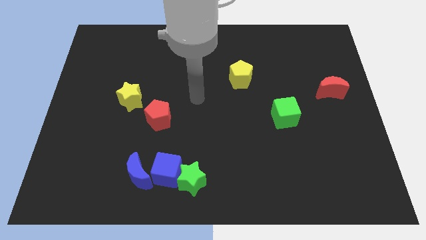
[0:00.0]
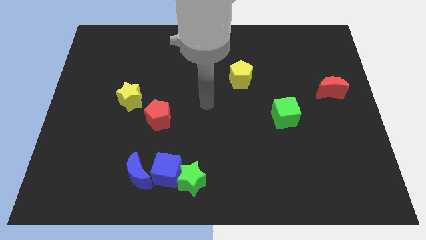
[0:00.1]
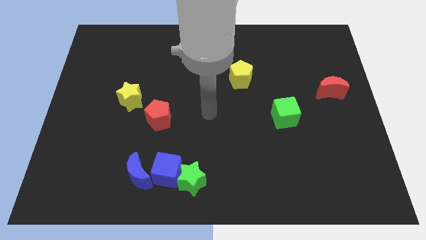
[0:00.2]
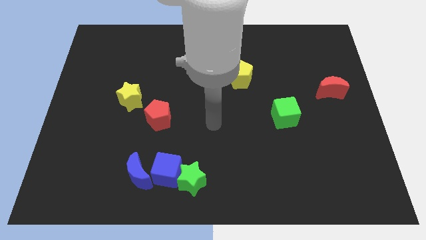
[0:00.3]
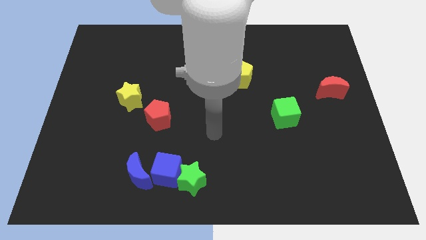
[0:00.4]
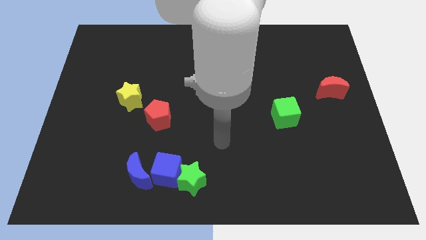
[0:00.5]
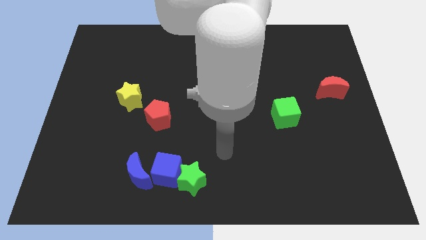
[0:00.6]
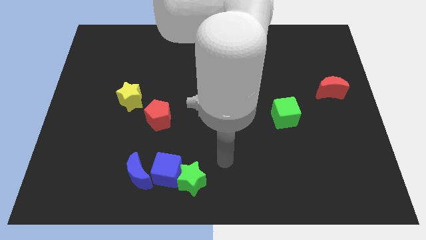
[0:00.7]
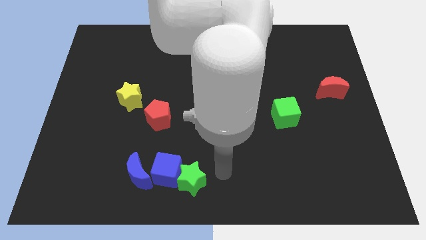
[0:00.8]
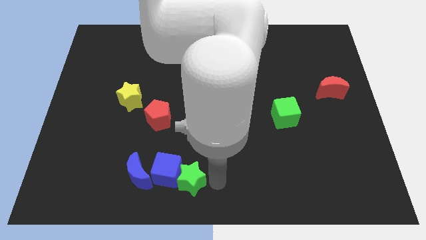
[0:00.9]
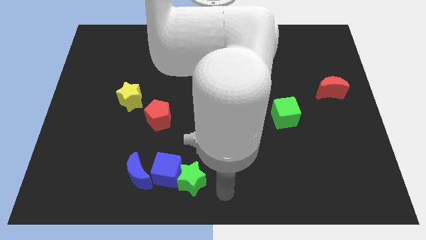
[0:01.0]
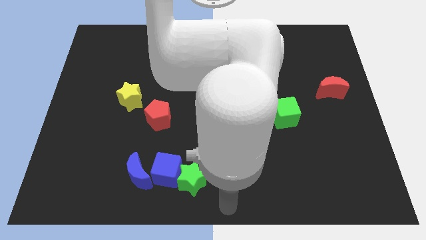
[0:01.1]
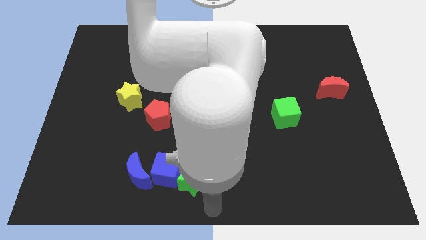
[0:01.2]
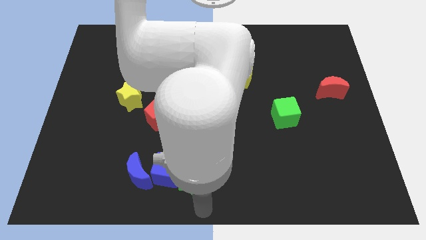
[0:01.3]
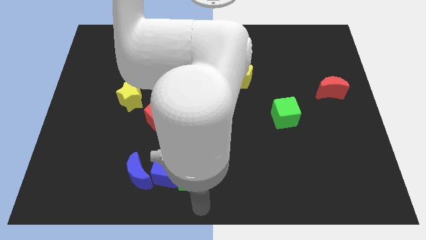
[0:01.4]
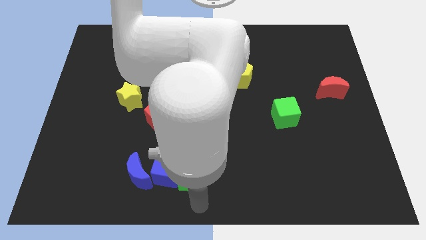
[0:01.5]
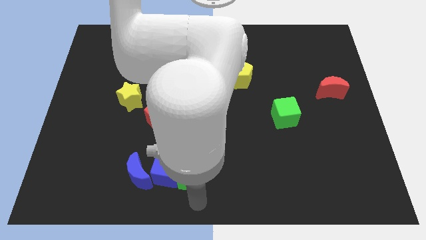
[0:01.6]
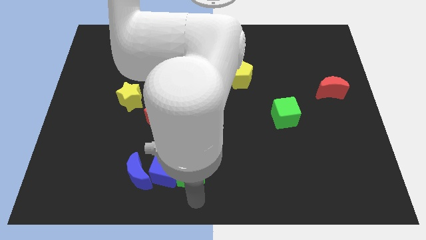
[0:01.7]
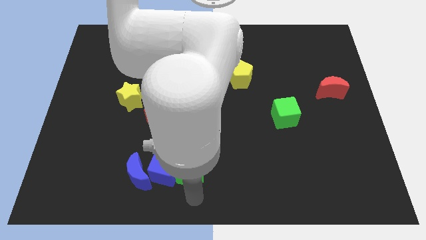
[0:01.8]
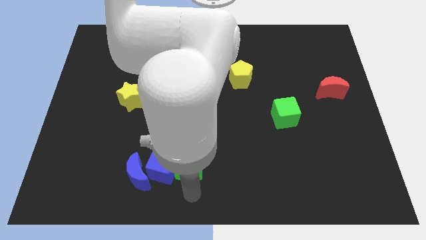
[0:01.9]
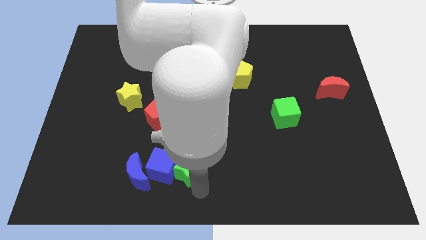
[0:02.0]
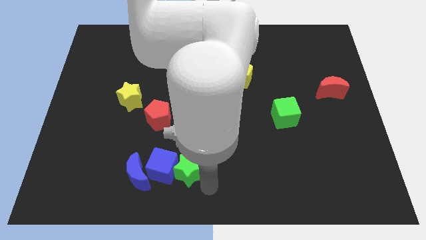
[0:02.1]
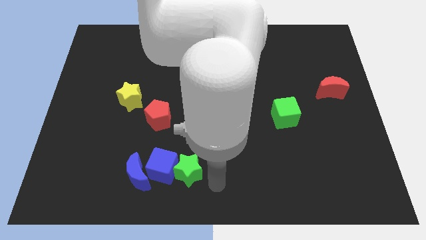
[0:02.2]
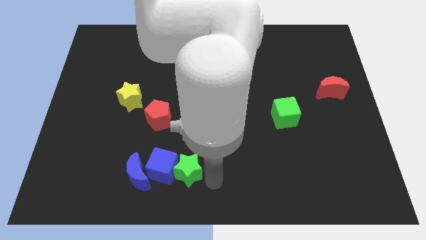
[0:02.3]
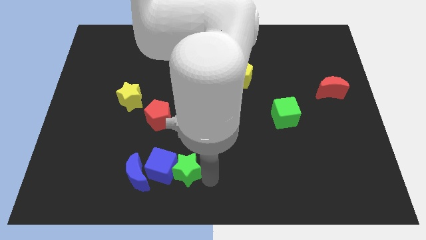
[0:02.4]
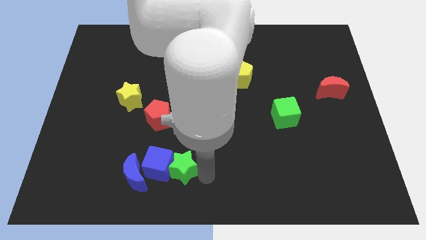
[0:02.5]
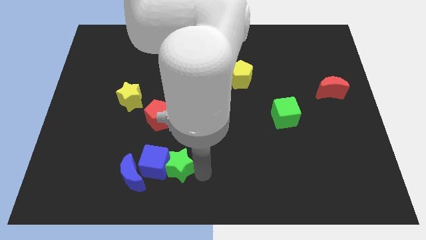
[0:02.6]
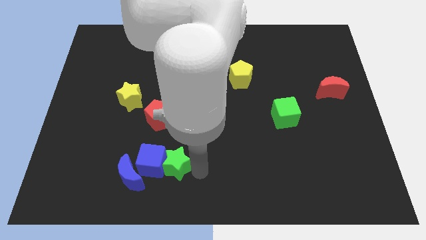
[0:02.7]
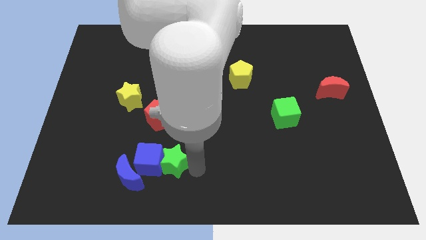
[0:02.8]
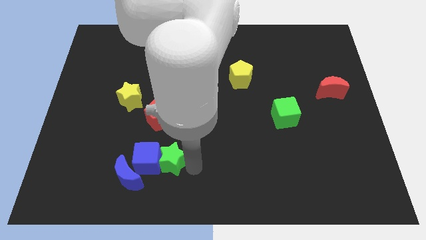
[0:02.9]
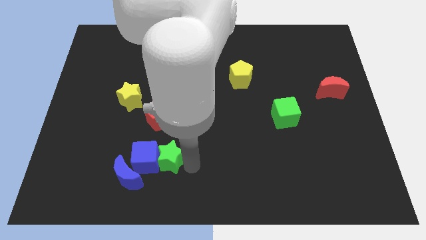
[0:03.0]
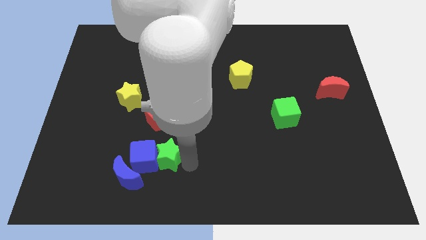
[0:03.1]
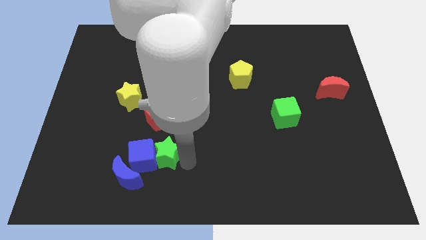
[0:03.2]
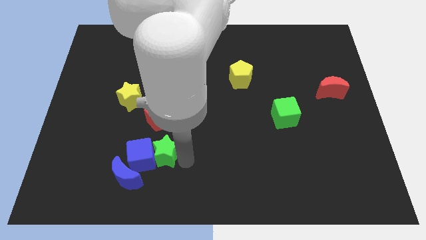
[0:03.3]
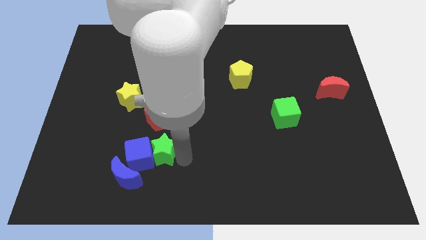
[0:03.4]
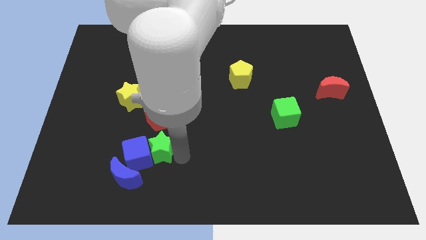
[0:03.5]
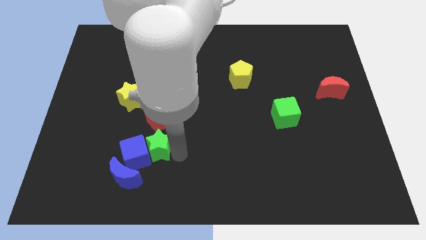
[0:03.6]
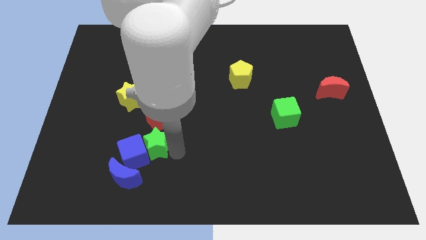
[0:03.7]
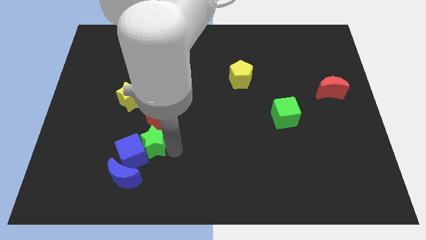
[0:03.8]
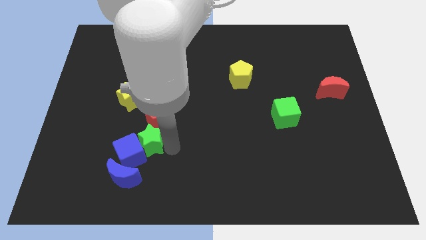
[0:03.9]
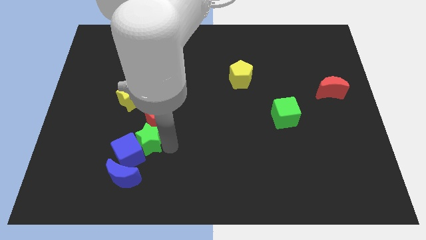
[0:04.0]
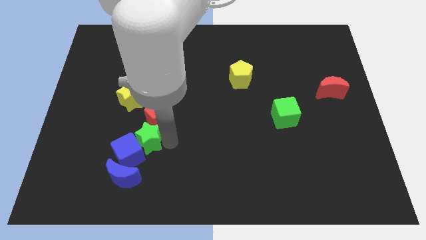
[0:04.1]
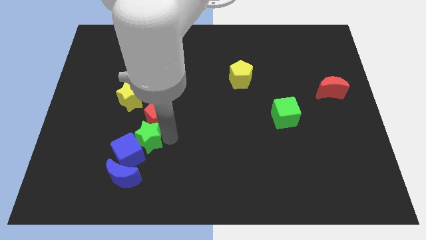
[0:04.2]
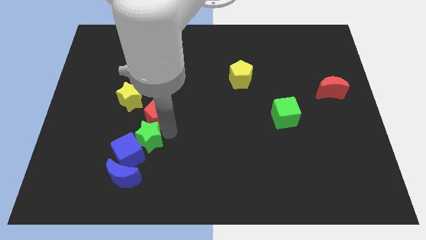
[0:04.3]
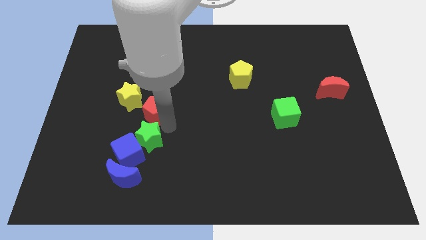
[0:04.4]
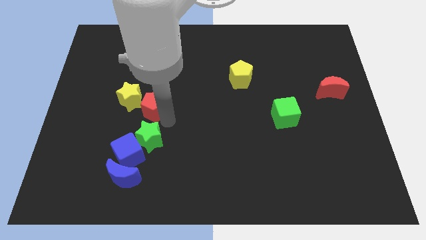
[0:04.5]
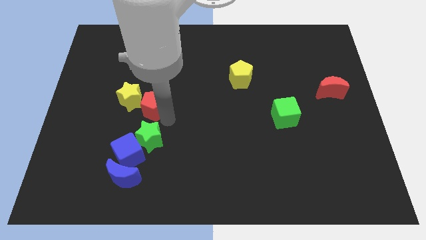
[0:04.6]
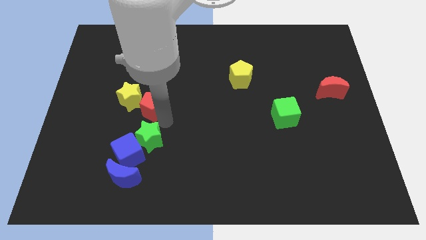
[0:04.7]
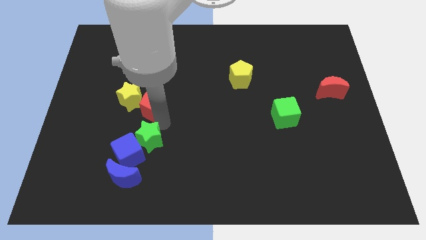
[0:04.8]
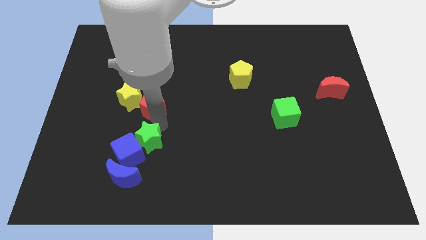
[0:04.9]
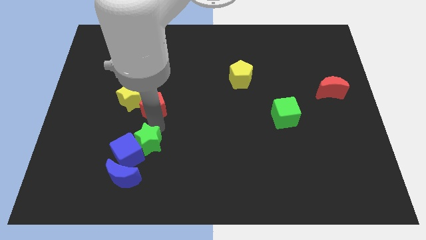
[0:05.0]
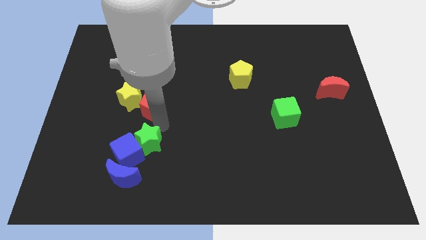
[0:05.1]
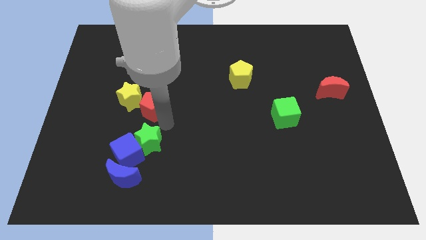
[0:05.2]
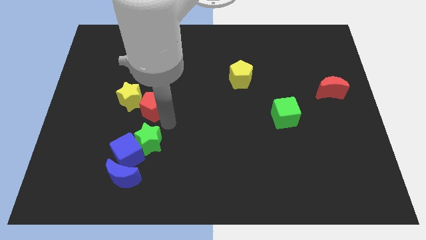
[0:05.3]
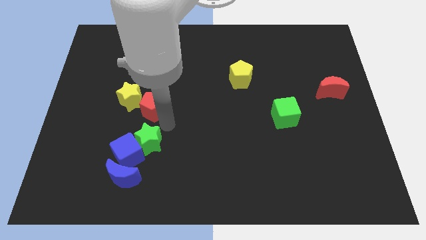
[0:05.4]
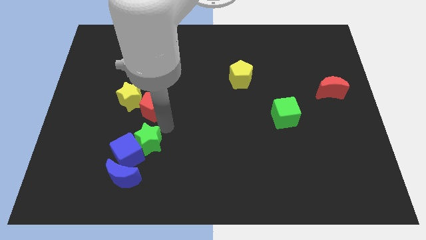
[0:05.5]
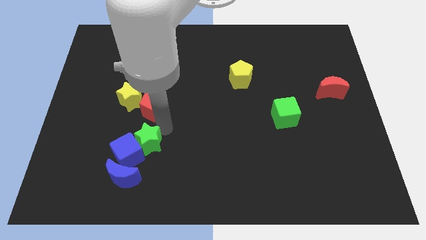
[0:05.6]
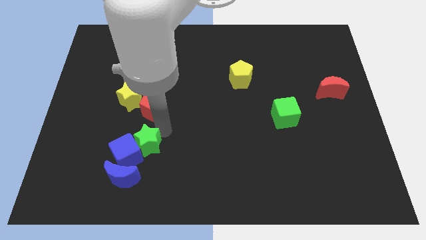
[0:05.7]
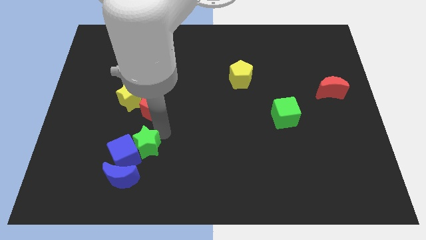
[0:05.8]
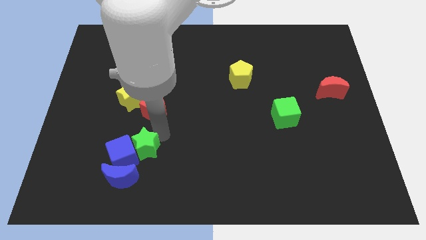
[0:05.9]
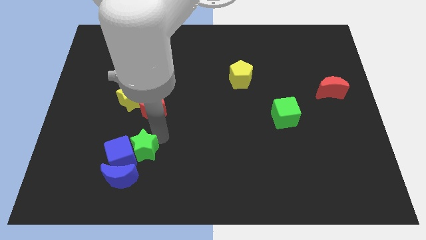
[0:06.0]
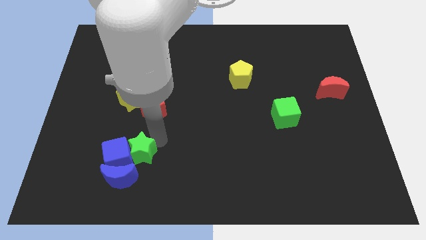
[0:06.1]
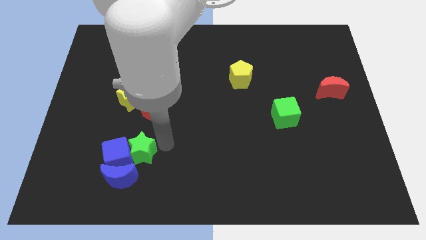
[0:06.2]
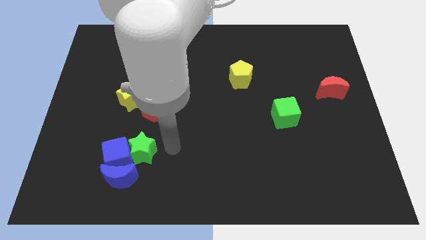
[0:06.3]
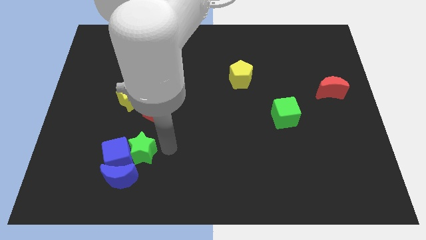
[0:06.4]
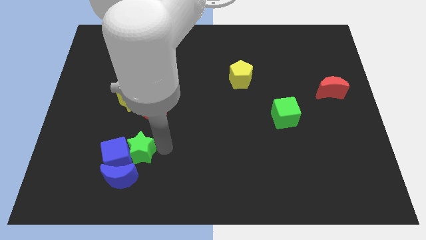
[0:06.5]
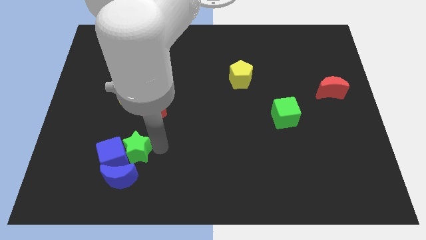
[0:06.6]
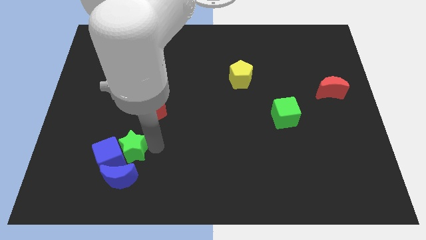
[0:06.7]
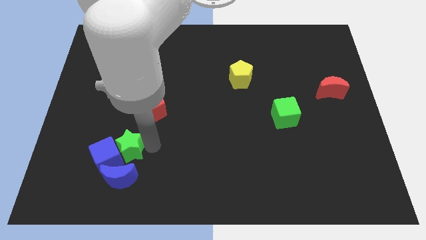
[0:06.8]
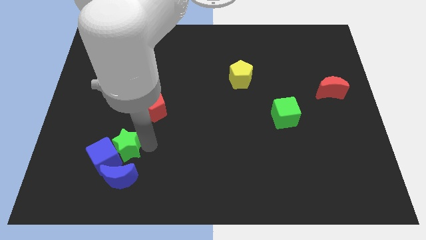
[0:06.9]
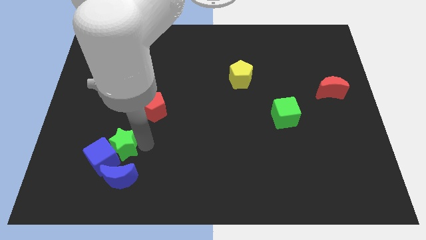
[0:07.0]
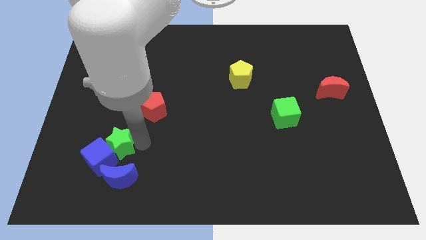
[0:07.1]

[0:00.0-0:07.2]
put the green star to the top left of the blue moon

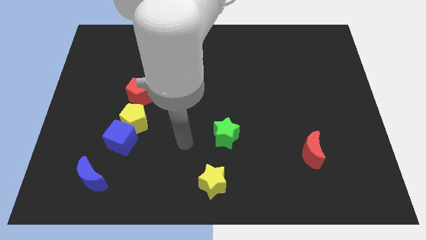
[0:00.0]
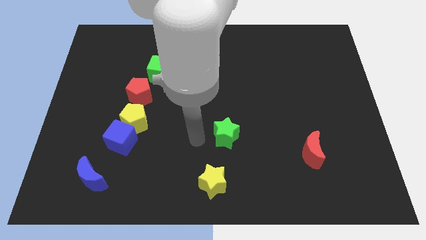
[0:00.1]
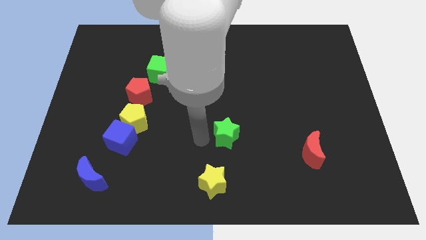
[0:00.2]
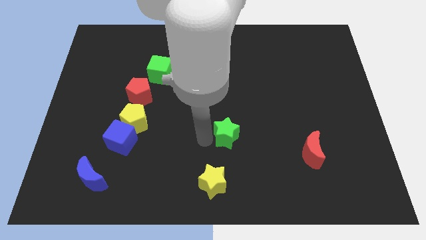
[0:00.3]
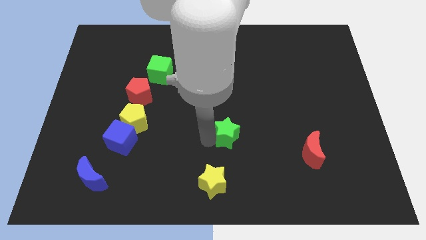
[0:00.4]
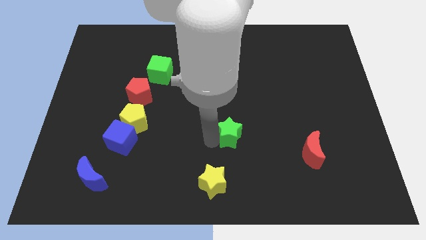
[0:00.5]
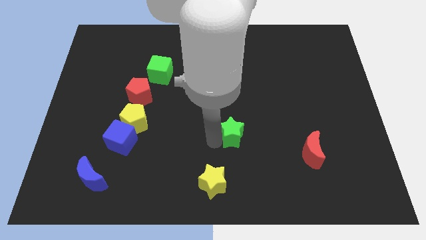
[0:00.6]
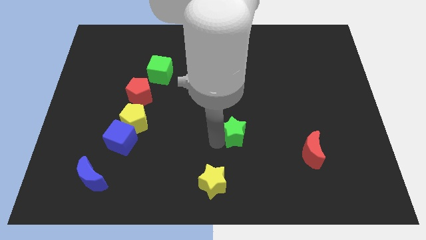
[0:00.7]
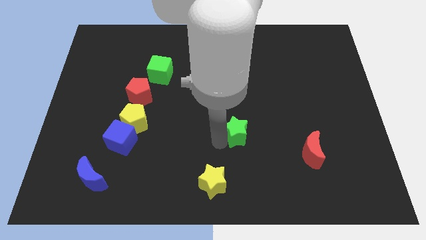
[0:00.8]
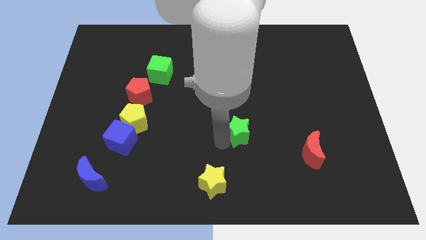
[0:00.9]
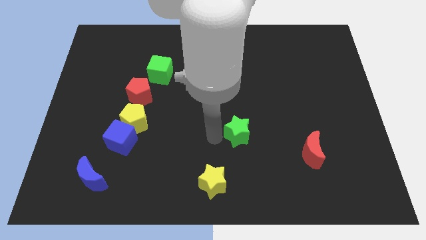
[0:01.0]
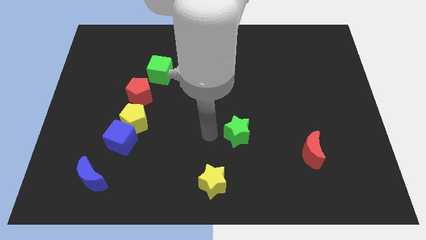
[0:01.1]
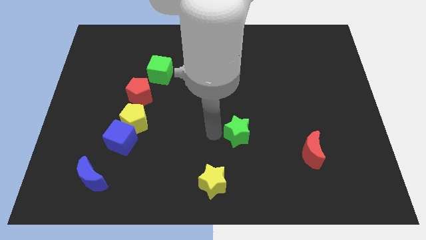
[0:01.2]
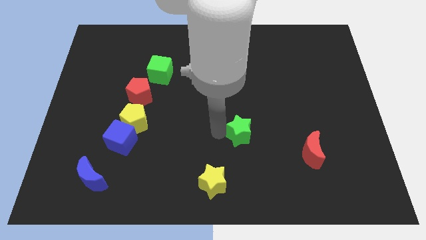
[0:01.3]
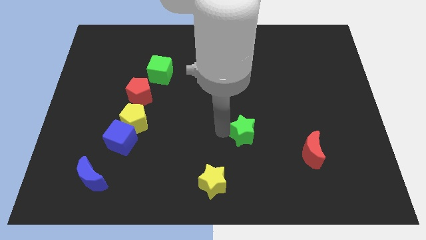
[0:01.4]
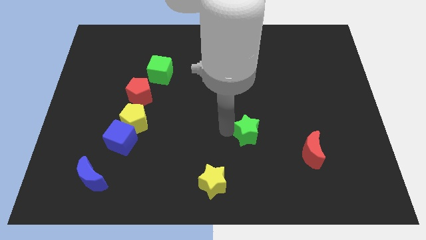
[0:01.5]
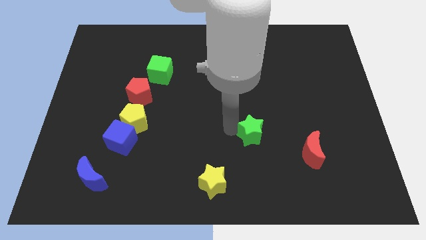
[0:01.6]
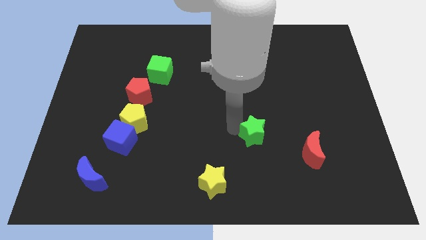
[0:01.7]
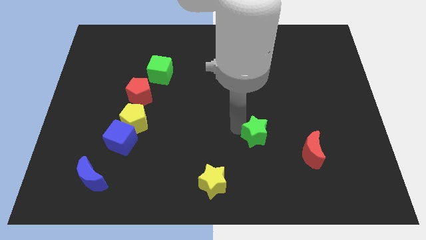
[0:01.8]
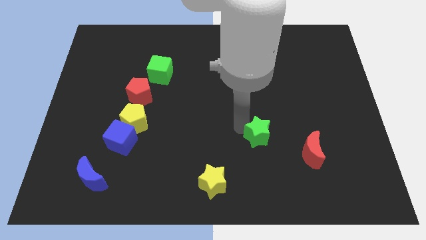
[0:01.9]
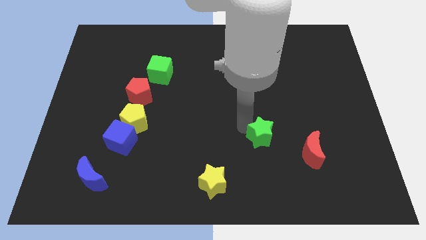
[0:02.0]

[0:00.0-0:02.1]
put the green star to the top left side of the red moon
